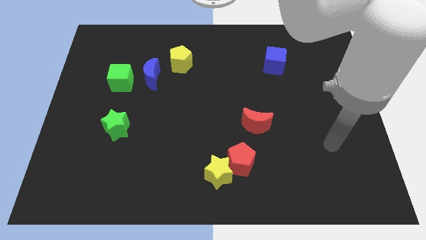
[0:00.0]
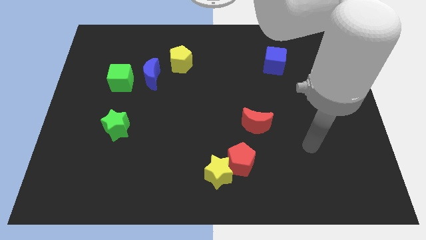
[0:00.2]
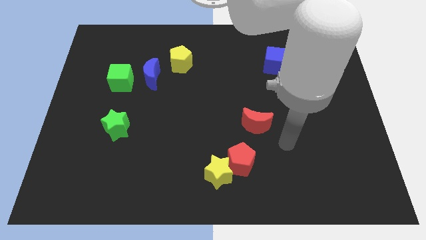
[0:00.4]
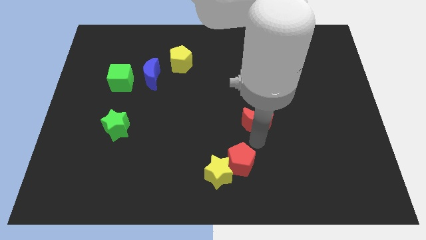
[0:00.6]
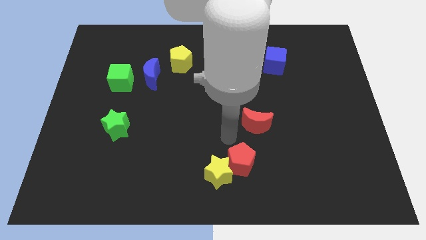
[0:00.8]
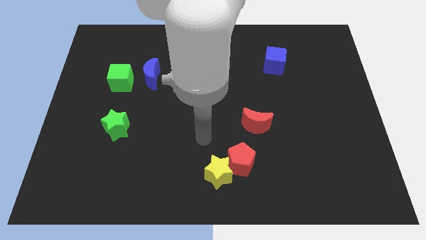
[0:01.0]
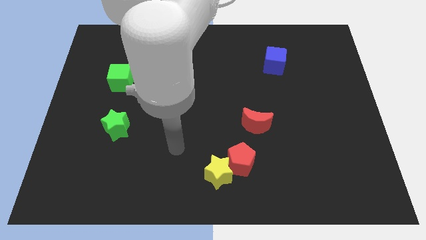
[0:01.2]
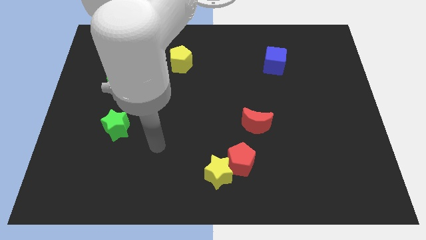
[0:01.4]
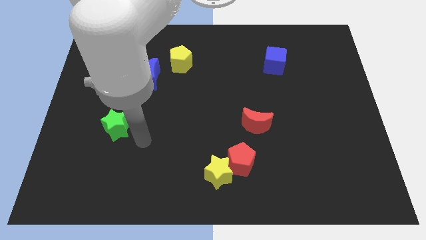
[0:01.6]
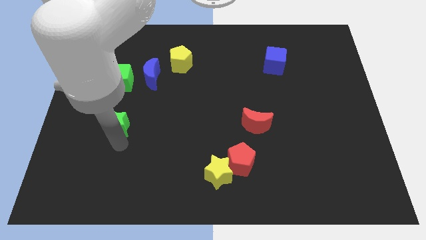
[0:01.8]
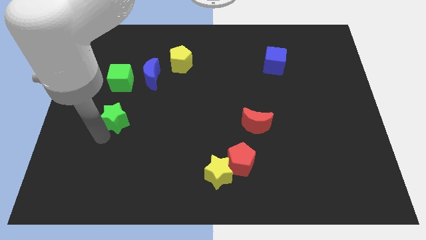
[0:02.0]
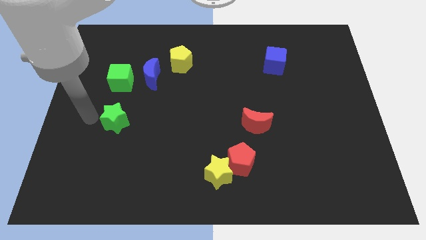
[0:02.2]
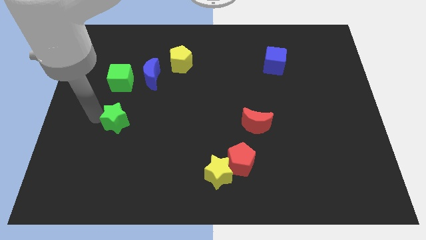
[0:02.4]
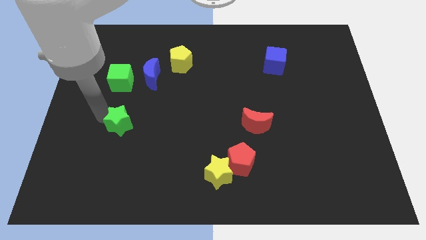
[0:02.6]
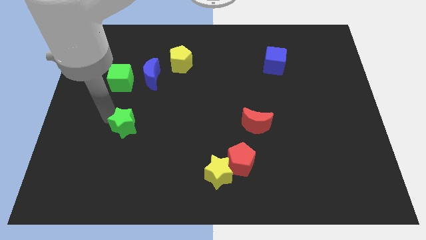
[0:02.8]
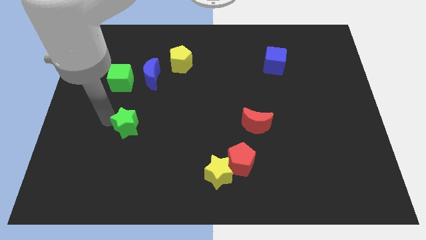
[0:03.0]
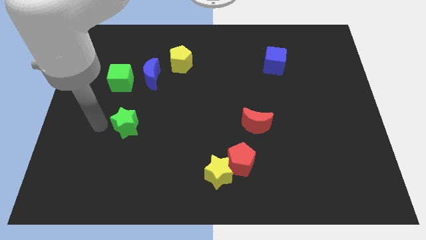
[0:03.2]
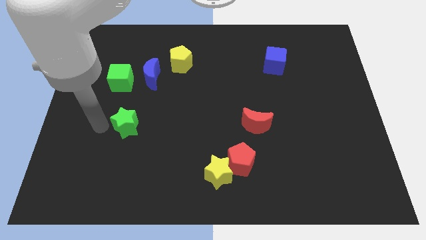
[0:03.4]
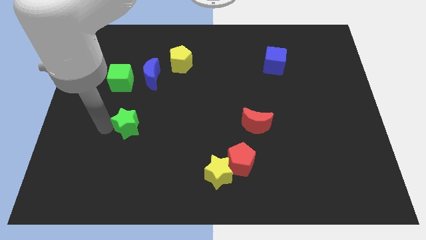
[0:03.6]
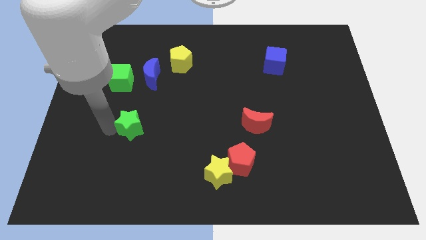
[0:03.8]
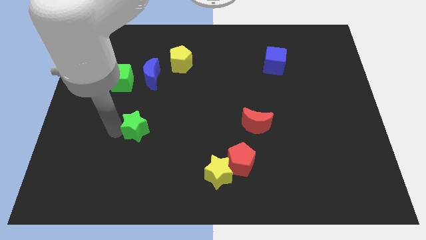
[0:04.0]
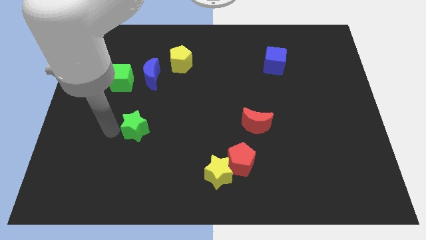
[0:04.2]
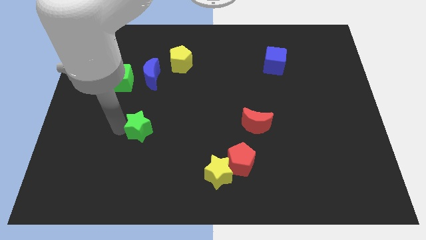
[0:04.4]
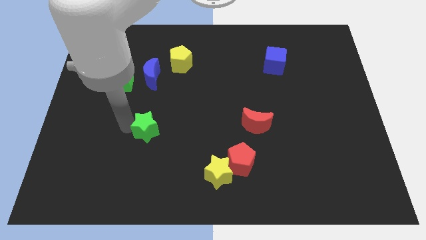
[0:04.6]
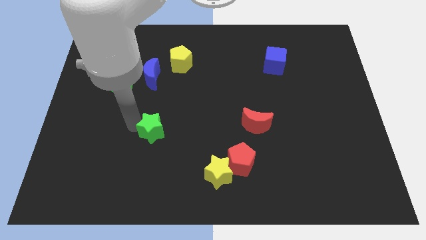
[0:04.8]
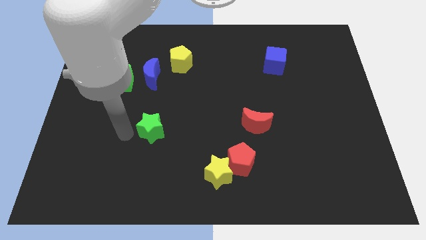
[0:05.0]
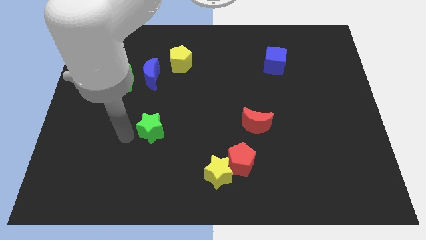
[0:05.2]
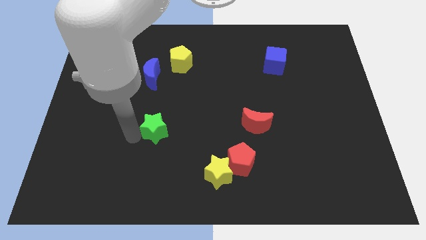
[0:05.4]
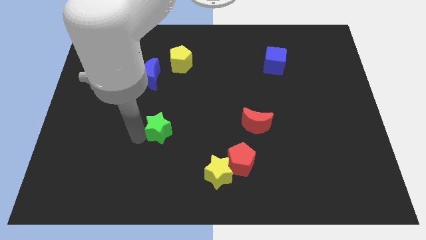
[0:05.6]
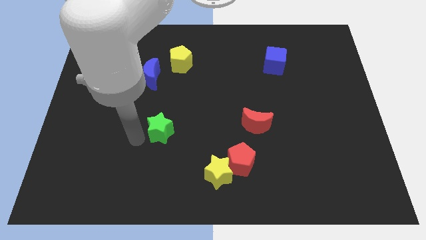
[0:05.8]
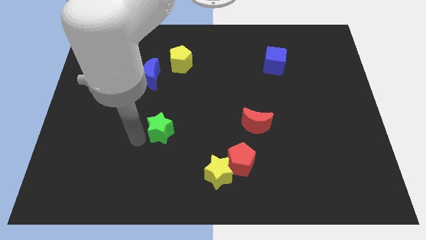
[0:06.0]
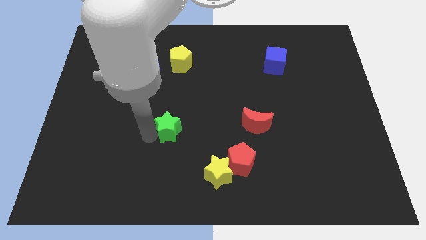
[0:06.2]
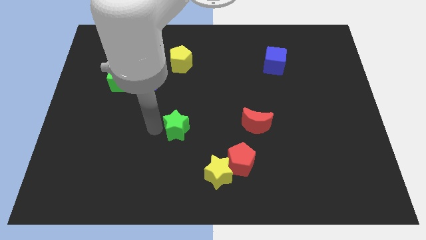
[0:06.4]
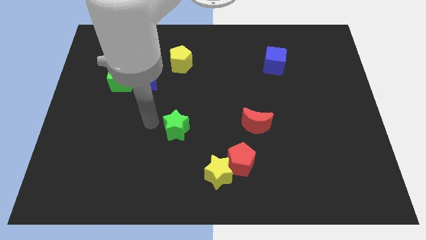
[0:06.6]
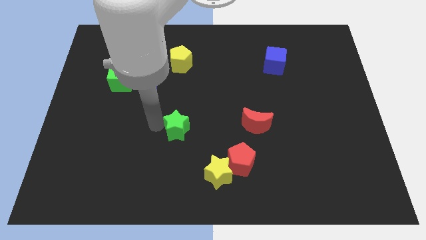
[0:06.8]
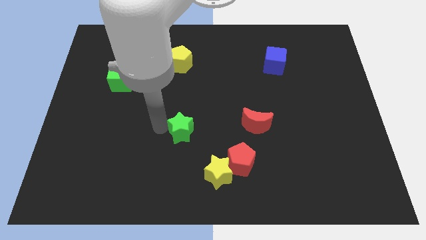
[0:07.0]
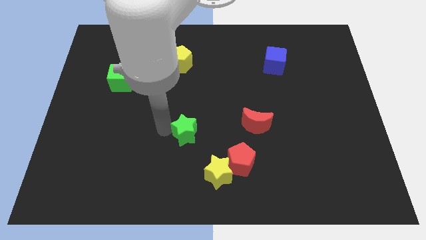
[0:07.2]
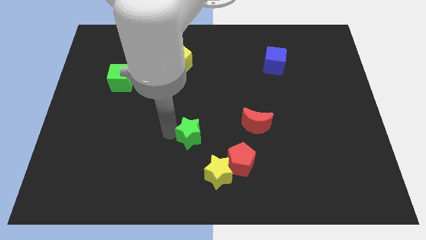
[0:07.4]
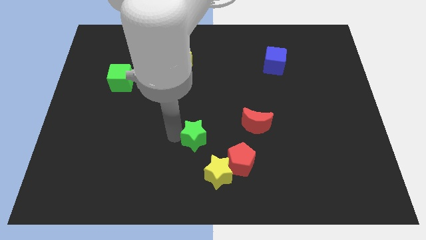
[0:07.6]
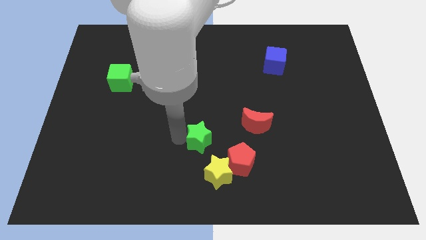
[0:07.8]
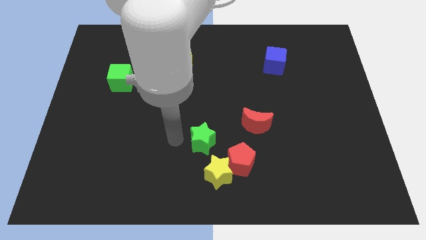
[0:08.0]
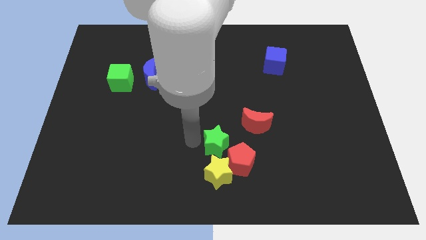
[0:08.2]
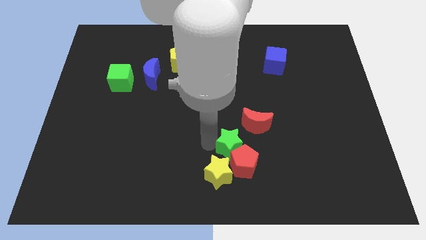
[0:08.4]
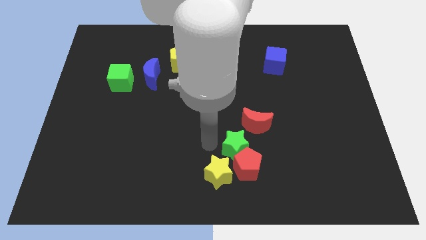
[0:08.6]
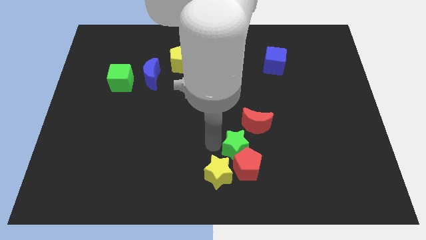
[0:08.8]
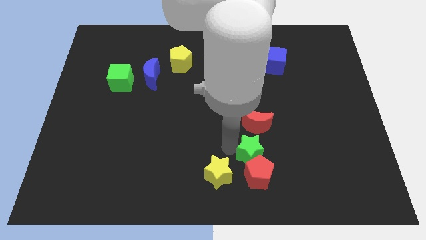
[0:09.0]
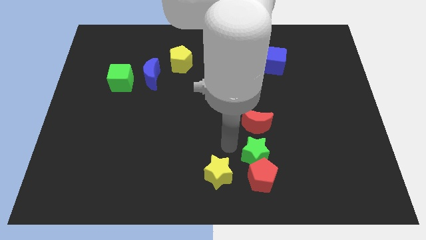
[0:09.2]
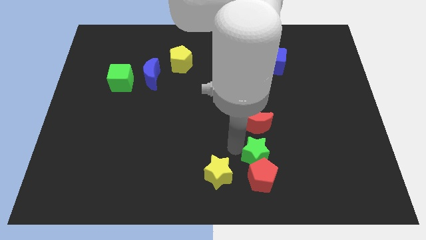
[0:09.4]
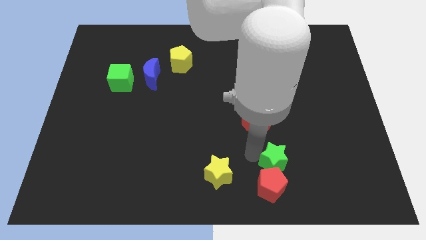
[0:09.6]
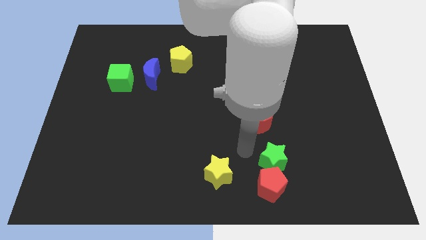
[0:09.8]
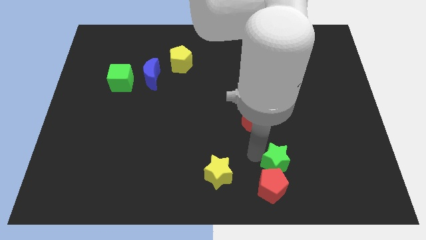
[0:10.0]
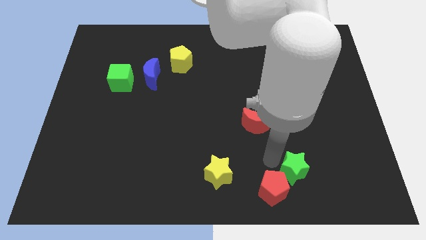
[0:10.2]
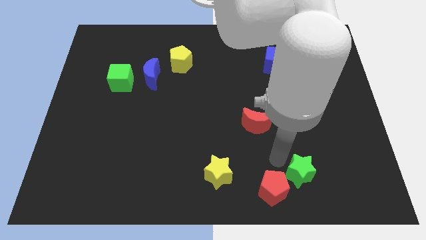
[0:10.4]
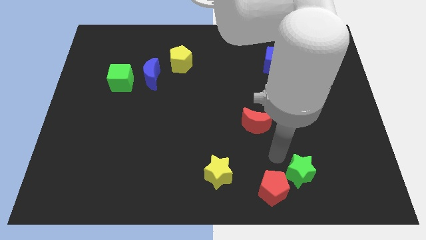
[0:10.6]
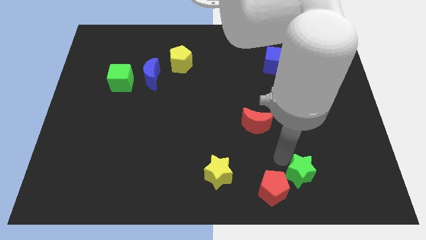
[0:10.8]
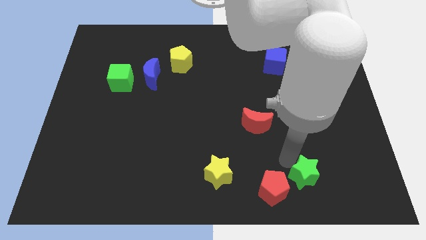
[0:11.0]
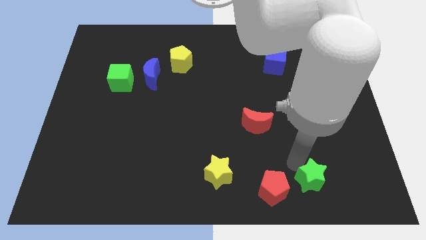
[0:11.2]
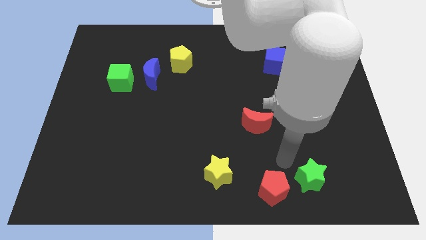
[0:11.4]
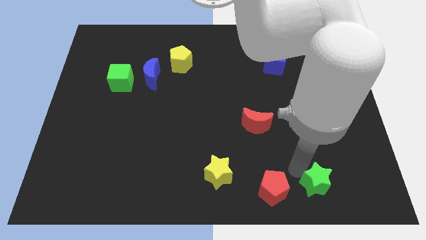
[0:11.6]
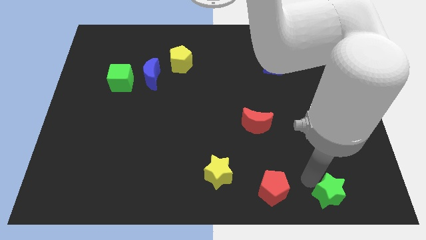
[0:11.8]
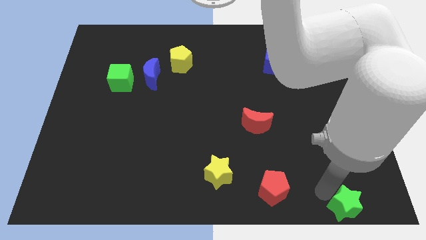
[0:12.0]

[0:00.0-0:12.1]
push the green star to the bottom right of the board

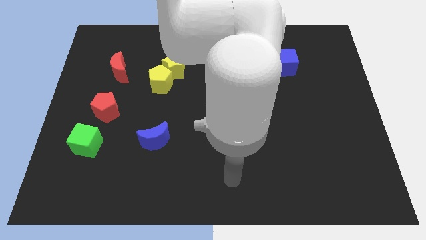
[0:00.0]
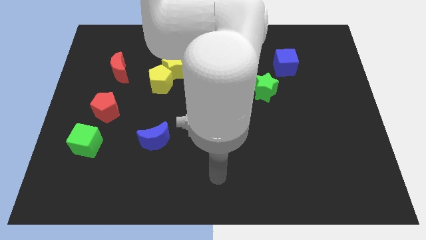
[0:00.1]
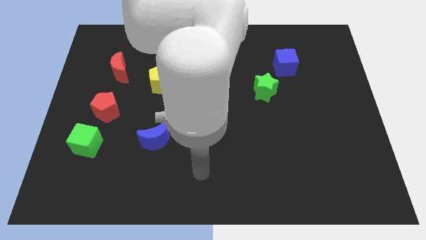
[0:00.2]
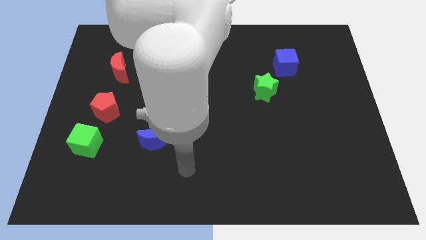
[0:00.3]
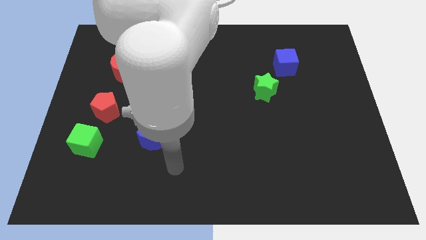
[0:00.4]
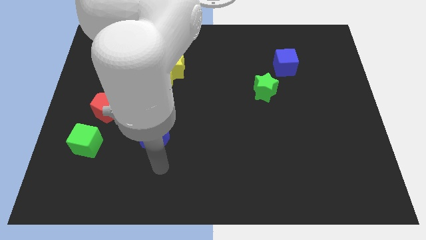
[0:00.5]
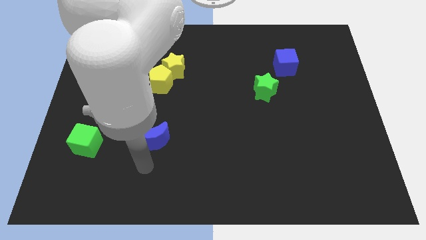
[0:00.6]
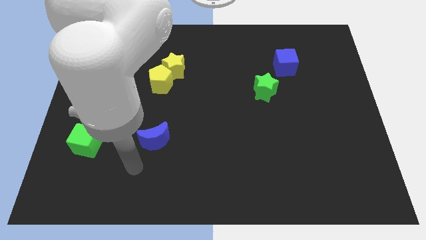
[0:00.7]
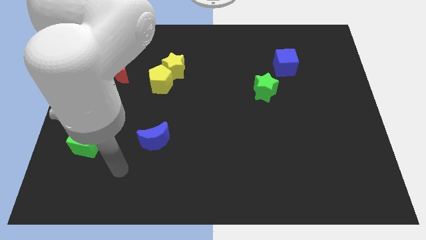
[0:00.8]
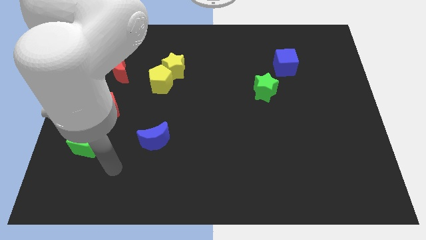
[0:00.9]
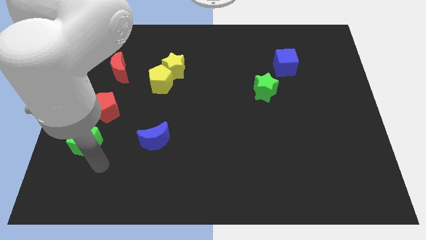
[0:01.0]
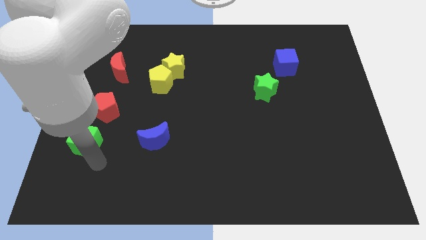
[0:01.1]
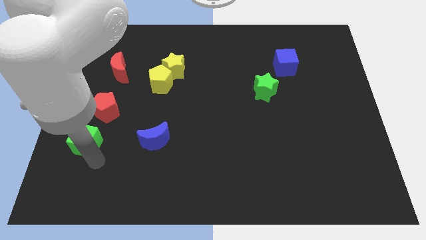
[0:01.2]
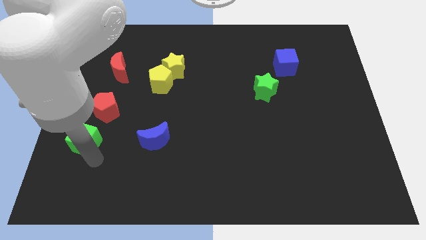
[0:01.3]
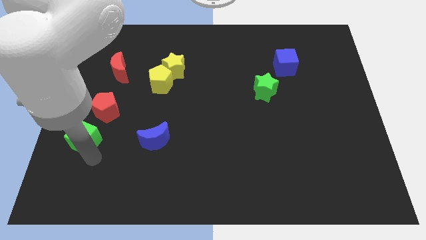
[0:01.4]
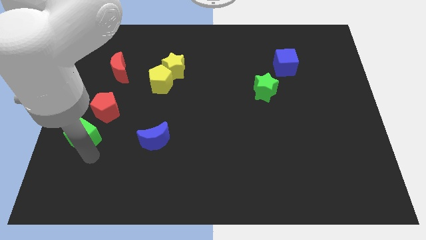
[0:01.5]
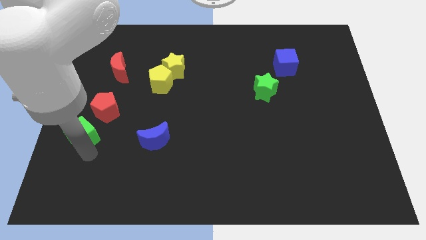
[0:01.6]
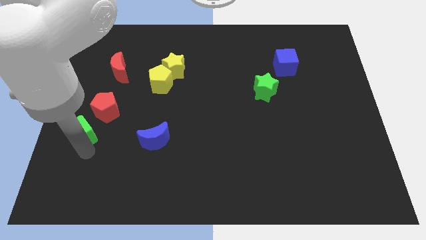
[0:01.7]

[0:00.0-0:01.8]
push the green cube to the left side of the board
